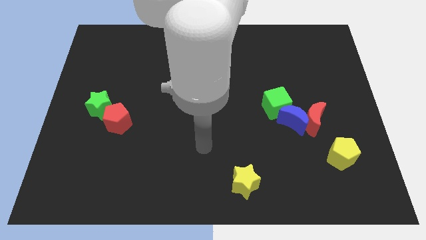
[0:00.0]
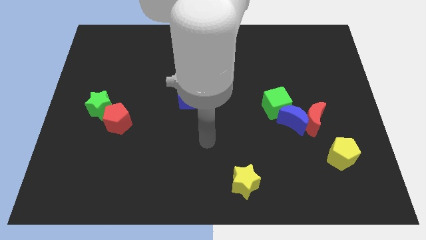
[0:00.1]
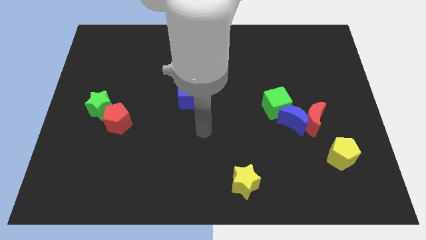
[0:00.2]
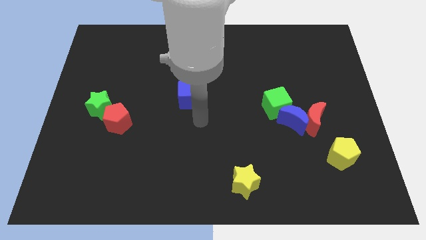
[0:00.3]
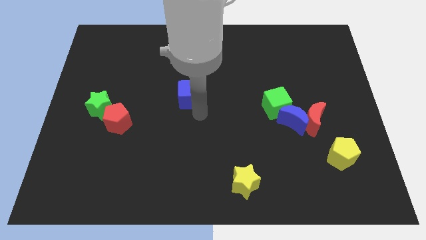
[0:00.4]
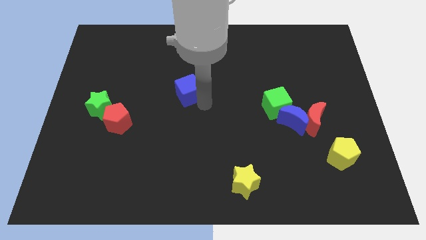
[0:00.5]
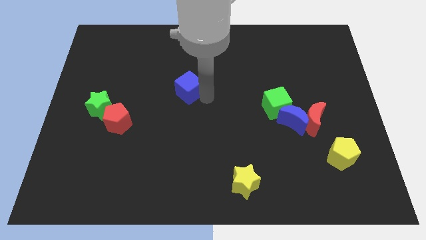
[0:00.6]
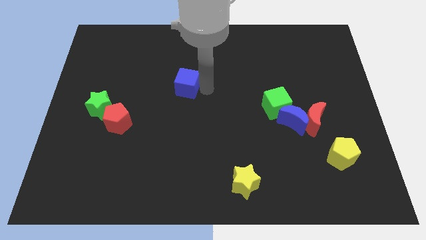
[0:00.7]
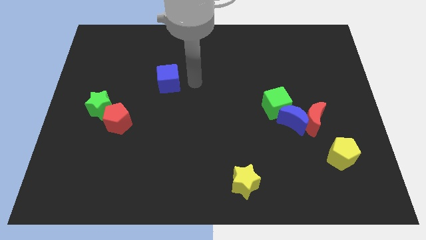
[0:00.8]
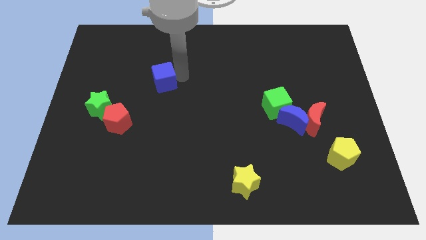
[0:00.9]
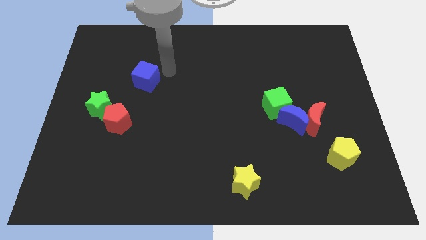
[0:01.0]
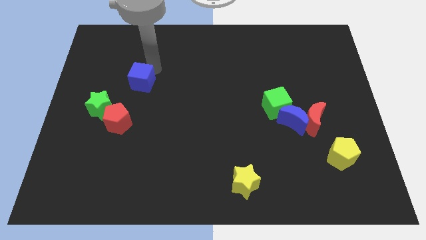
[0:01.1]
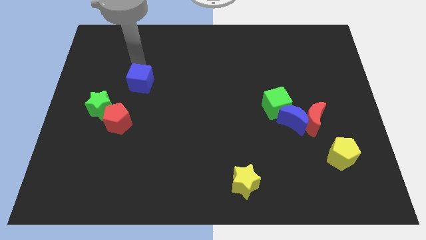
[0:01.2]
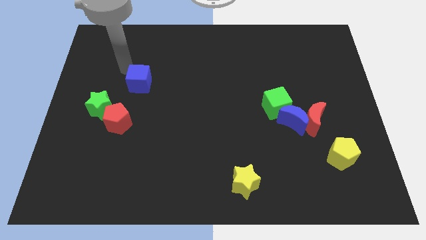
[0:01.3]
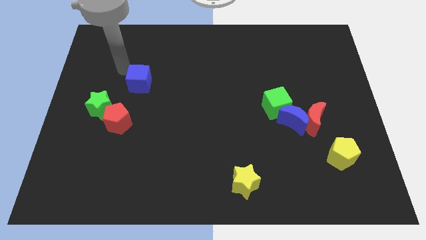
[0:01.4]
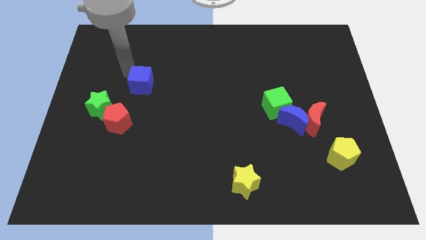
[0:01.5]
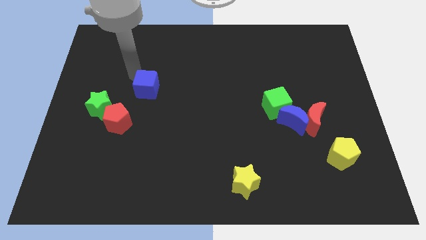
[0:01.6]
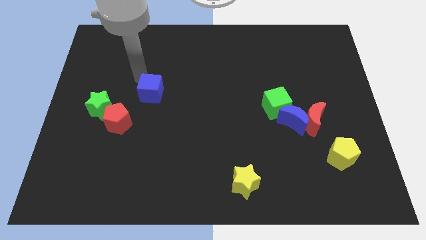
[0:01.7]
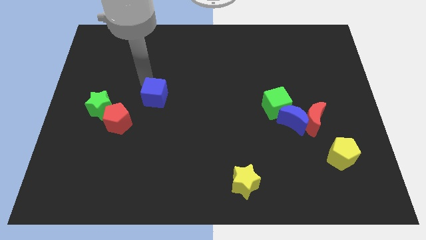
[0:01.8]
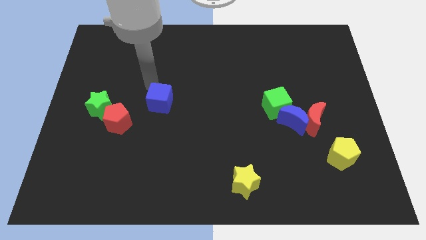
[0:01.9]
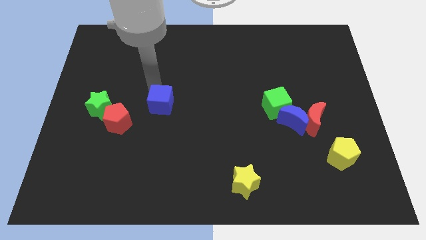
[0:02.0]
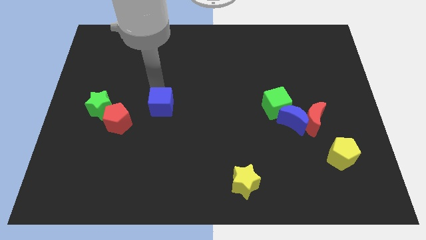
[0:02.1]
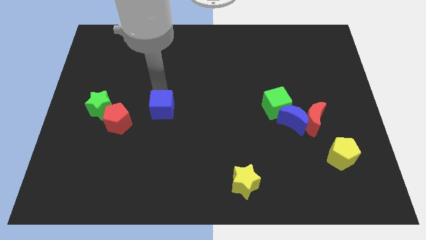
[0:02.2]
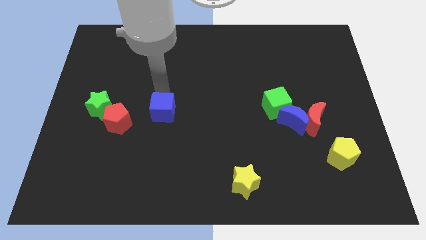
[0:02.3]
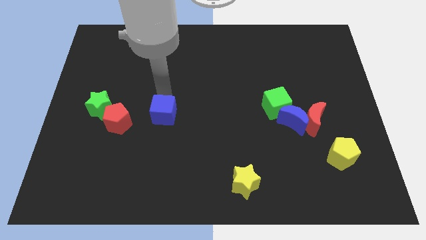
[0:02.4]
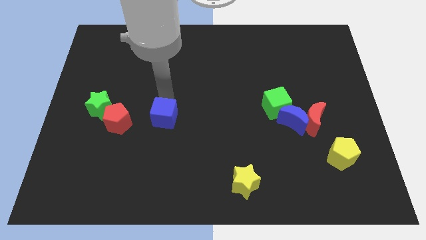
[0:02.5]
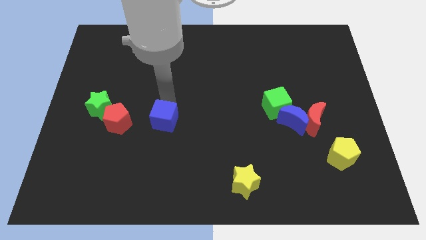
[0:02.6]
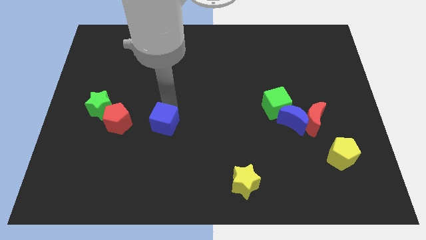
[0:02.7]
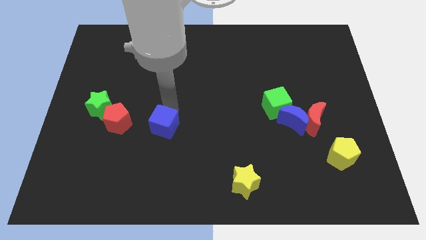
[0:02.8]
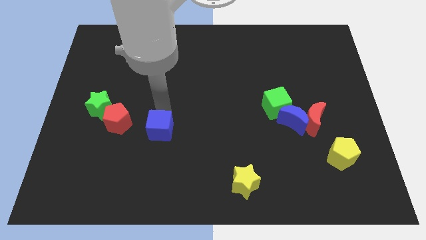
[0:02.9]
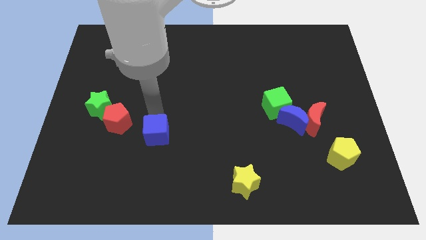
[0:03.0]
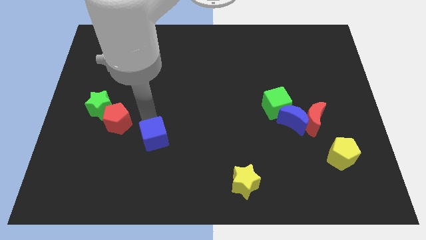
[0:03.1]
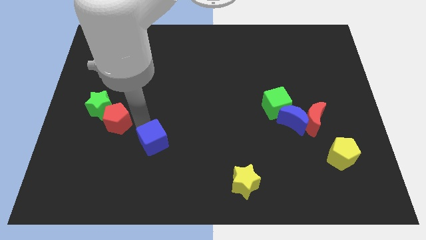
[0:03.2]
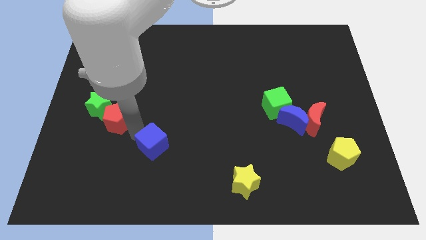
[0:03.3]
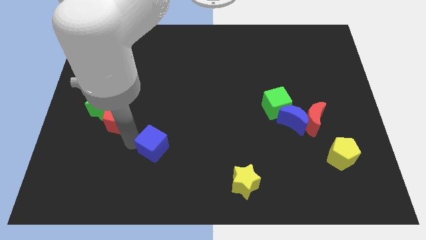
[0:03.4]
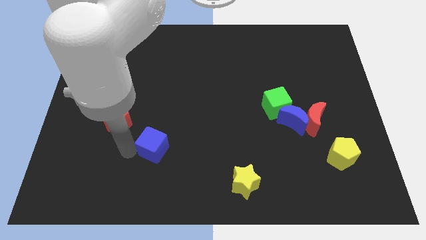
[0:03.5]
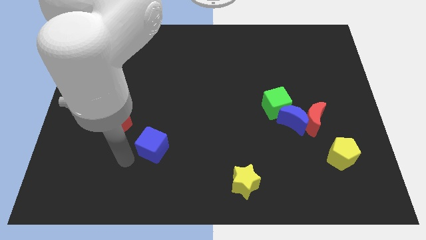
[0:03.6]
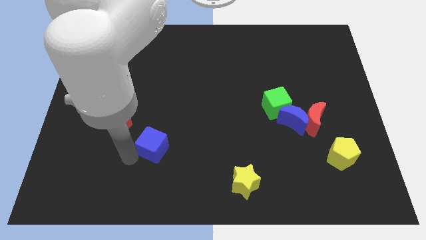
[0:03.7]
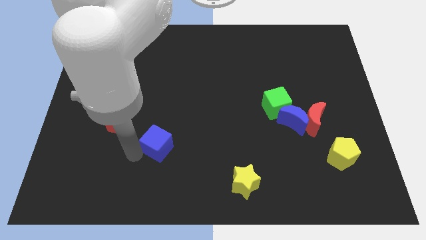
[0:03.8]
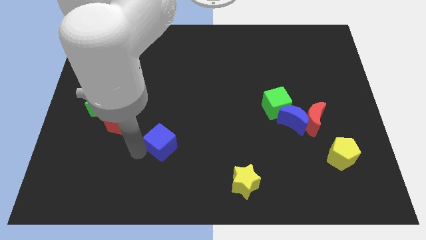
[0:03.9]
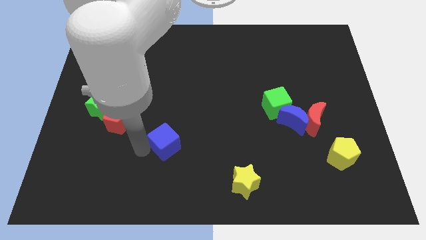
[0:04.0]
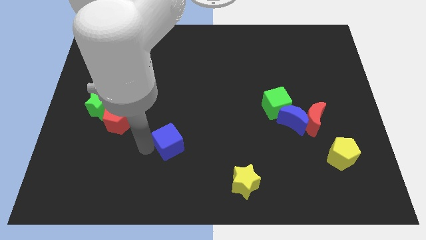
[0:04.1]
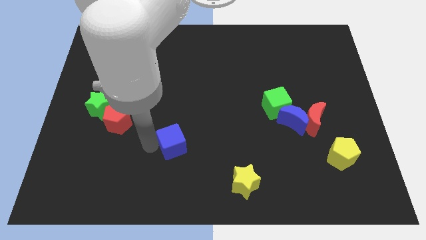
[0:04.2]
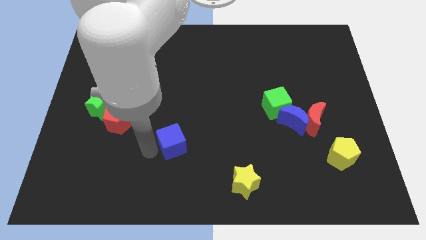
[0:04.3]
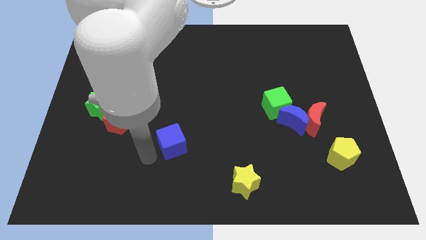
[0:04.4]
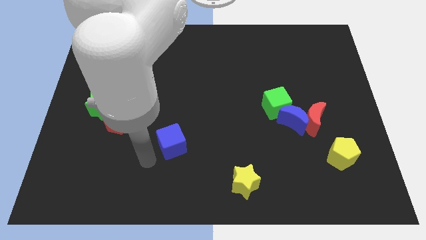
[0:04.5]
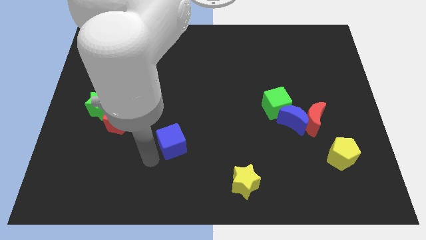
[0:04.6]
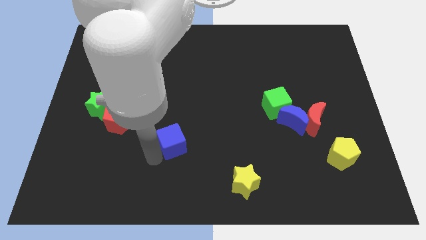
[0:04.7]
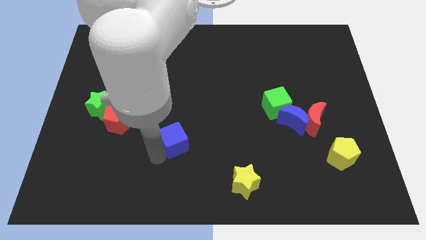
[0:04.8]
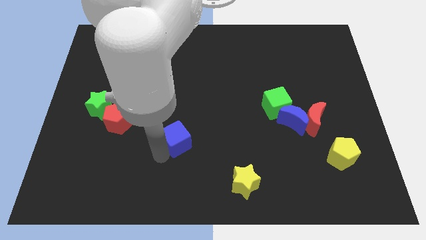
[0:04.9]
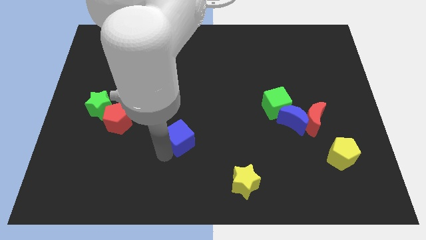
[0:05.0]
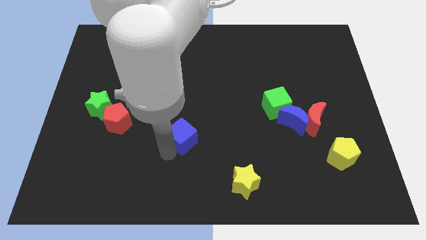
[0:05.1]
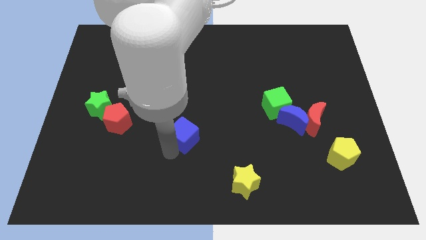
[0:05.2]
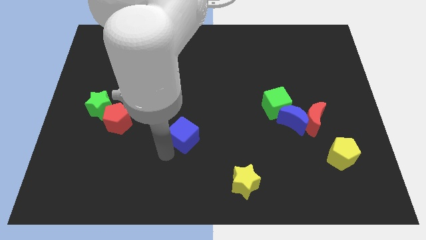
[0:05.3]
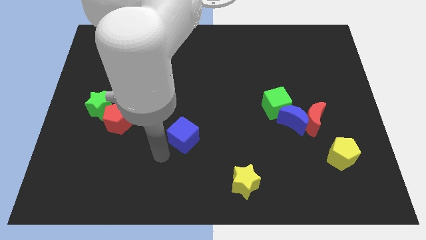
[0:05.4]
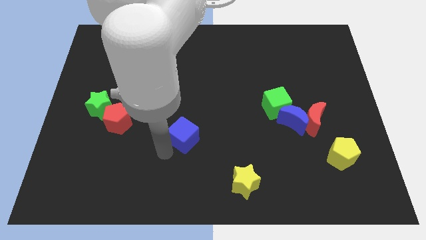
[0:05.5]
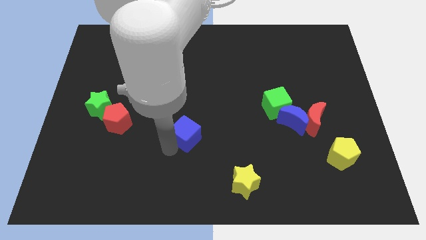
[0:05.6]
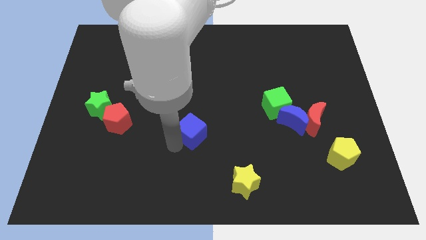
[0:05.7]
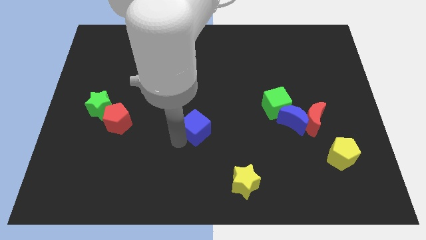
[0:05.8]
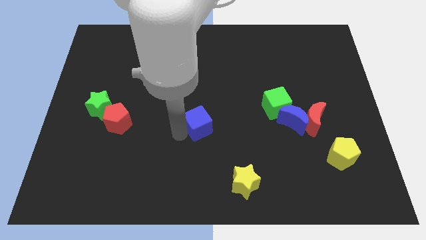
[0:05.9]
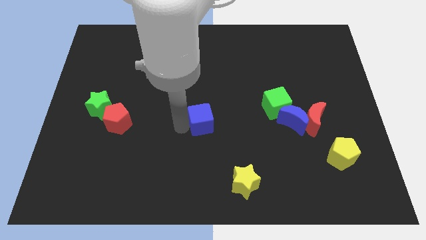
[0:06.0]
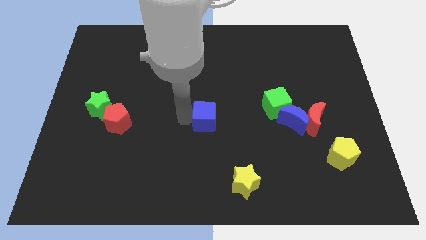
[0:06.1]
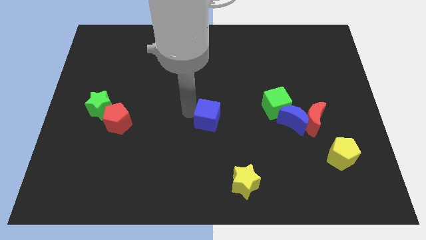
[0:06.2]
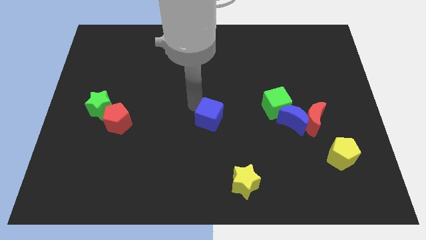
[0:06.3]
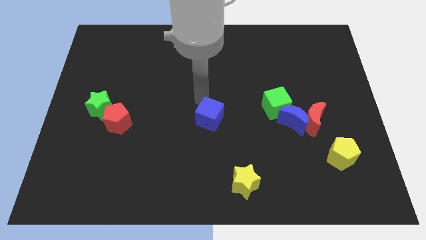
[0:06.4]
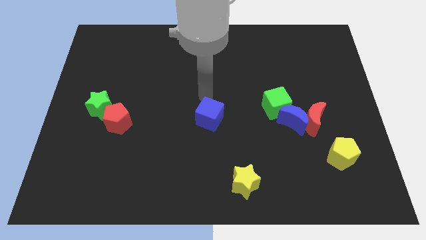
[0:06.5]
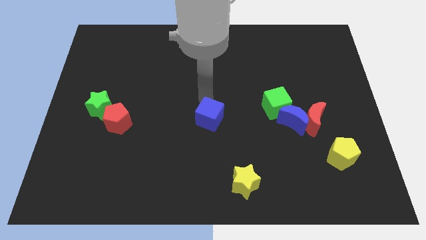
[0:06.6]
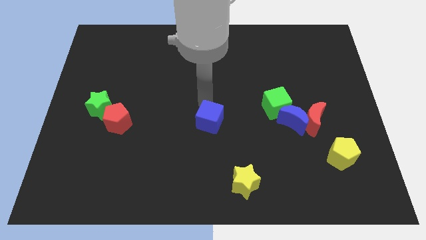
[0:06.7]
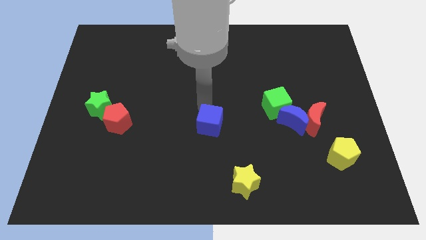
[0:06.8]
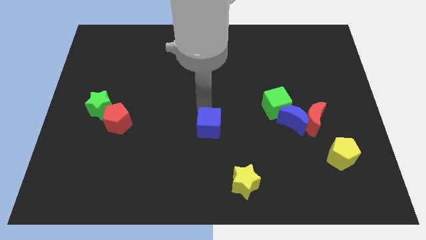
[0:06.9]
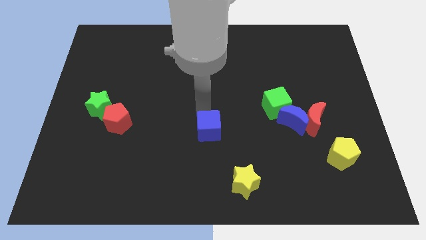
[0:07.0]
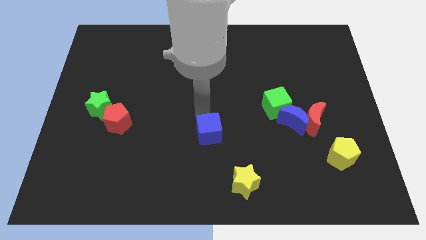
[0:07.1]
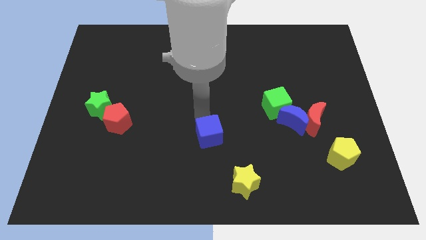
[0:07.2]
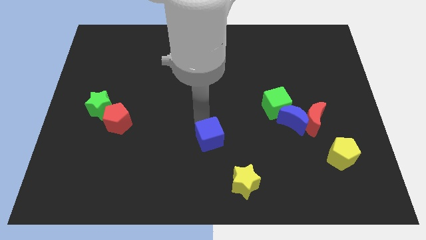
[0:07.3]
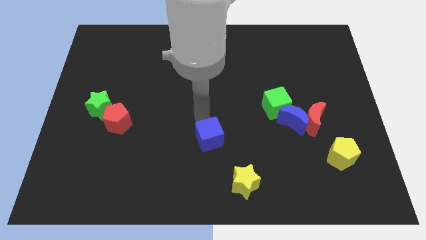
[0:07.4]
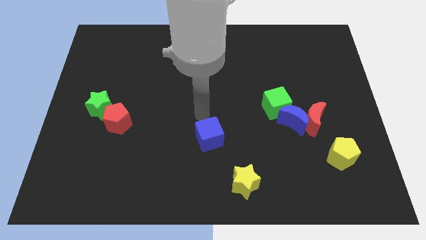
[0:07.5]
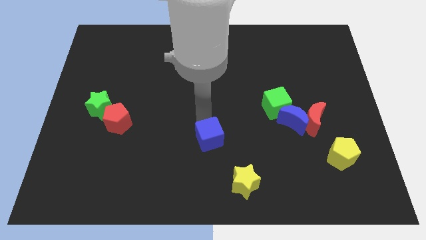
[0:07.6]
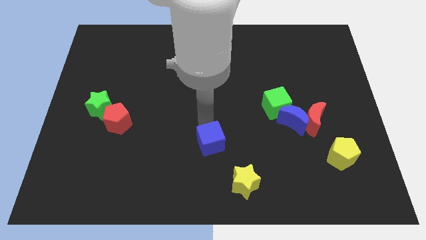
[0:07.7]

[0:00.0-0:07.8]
push the blue cube diagonally up and to the left of the yellow star
